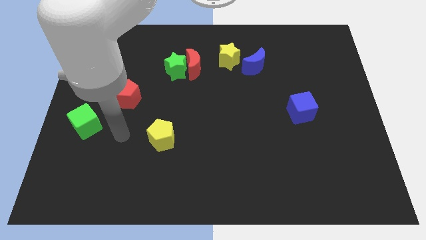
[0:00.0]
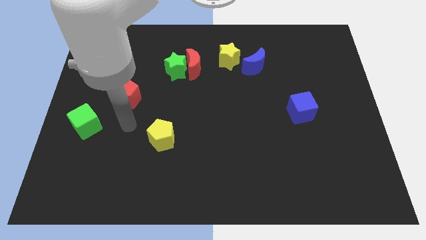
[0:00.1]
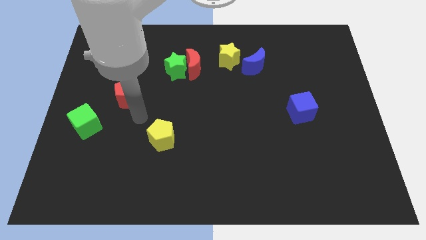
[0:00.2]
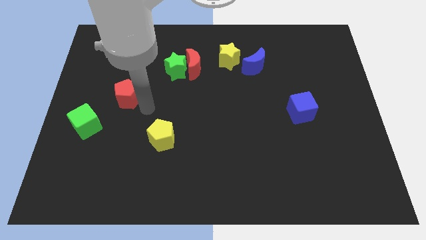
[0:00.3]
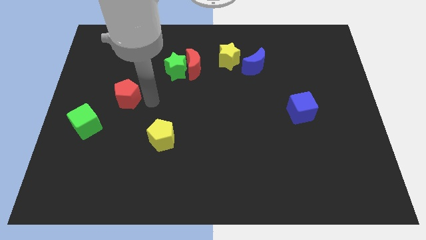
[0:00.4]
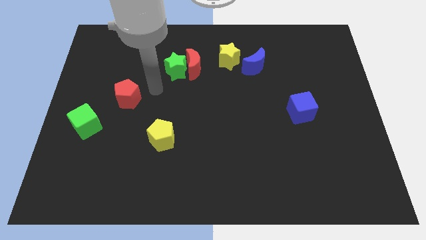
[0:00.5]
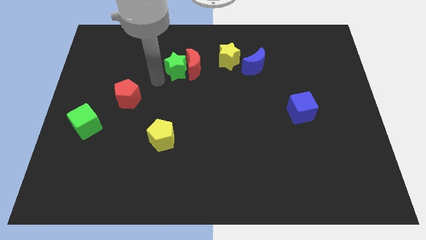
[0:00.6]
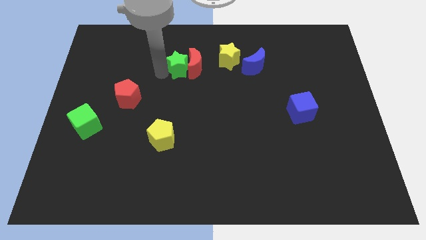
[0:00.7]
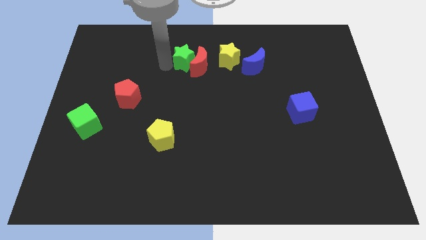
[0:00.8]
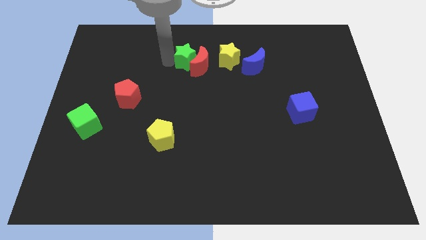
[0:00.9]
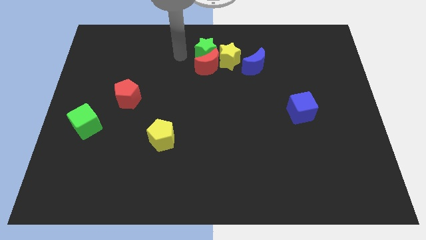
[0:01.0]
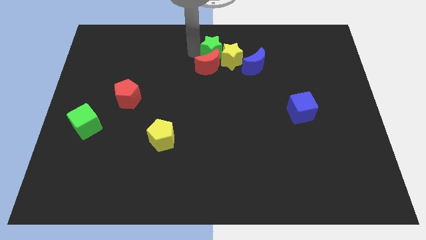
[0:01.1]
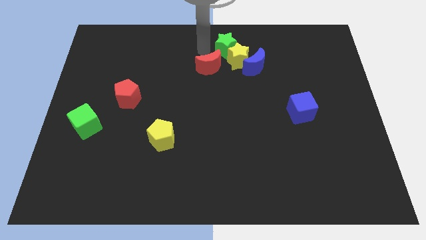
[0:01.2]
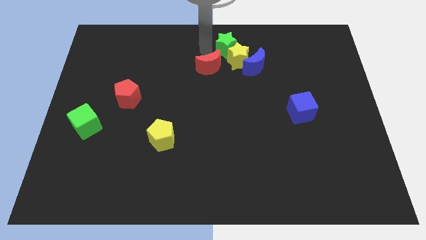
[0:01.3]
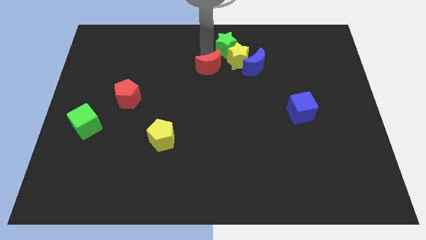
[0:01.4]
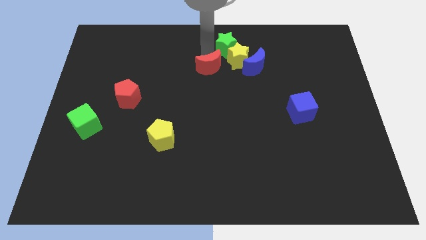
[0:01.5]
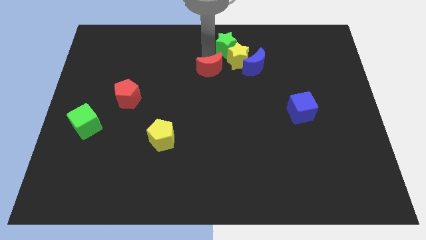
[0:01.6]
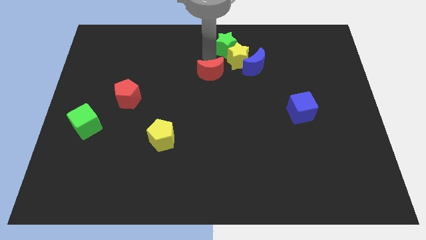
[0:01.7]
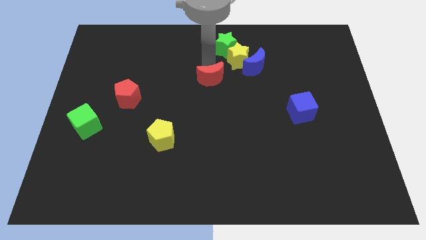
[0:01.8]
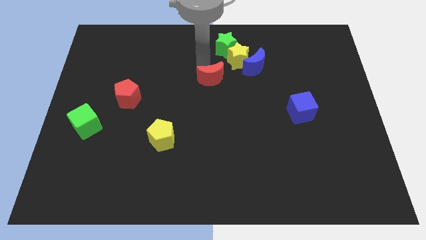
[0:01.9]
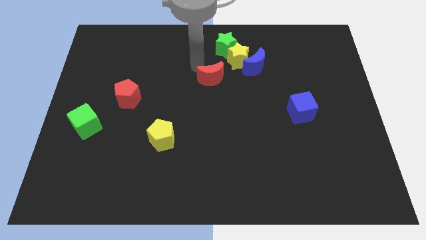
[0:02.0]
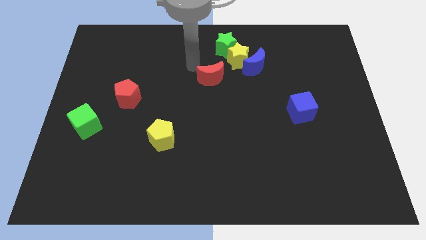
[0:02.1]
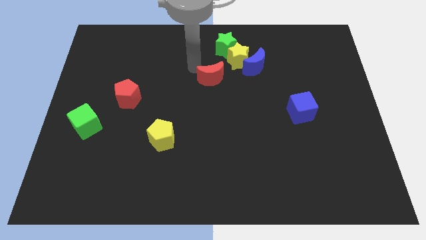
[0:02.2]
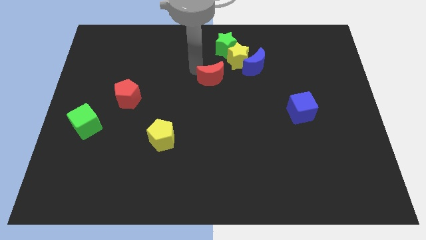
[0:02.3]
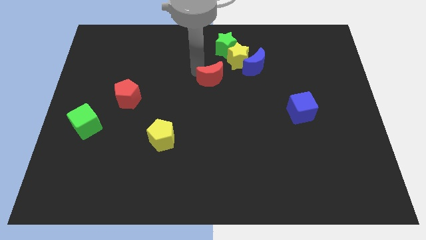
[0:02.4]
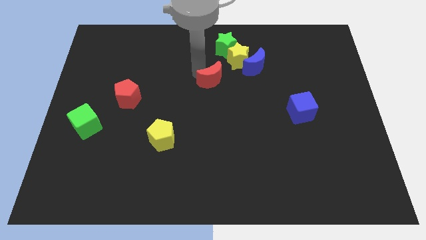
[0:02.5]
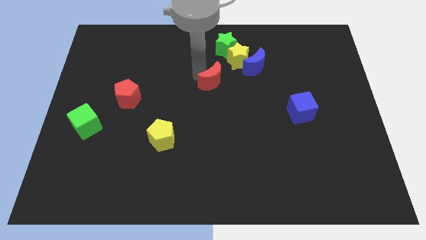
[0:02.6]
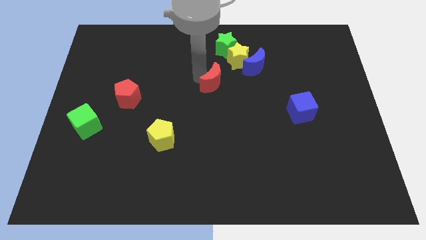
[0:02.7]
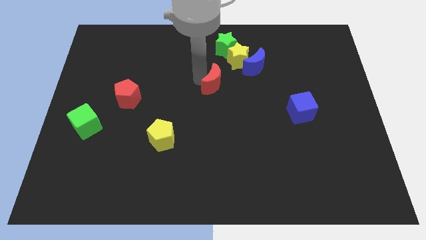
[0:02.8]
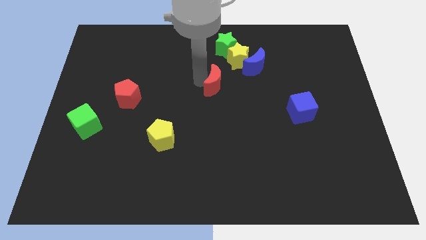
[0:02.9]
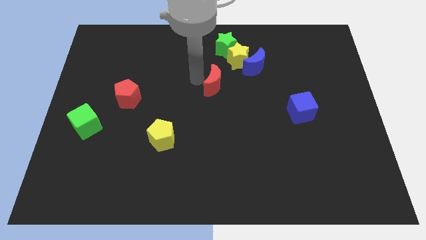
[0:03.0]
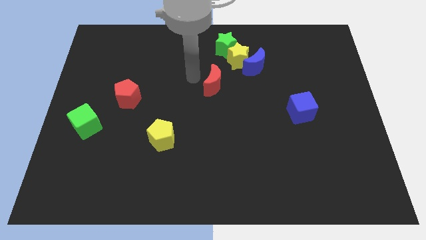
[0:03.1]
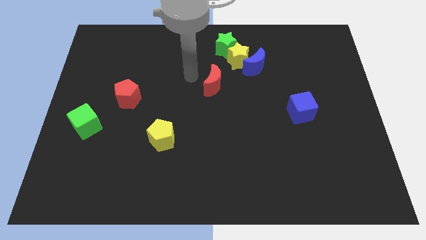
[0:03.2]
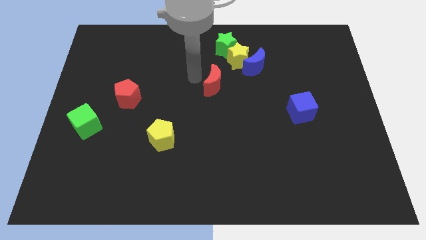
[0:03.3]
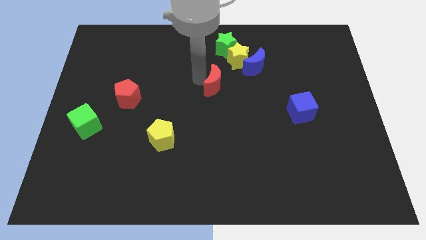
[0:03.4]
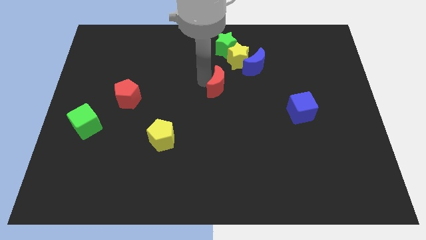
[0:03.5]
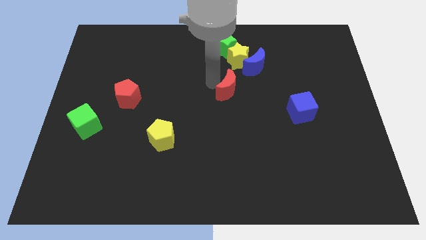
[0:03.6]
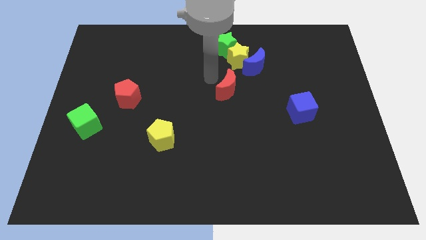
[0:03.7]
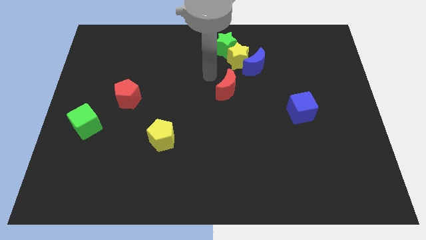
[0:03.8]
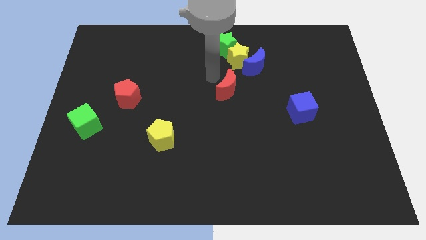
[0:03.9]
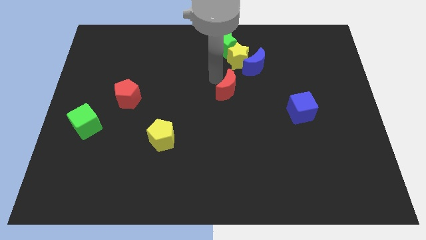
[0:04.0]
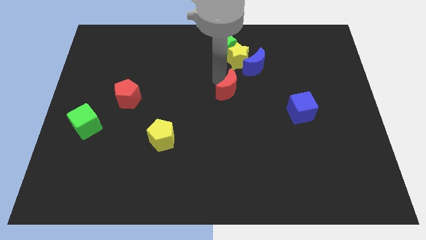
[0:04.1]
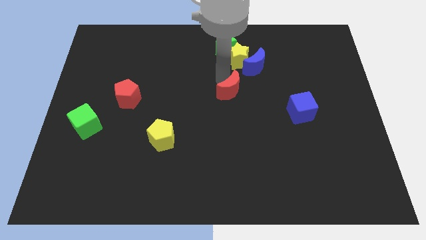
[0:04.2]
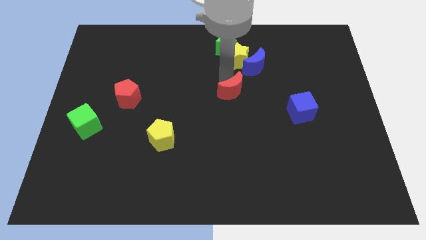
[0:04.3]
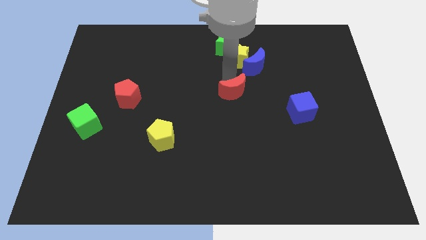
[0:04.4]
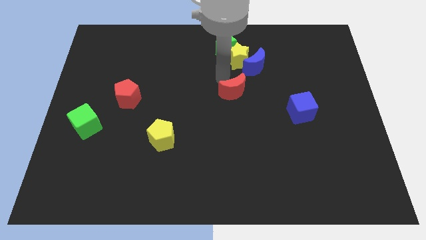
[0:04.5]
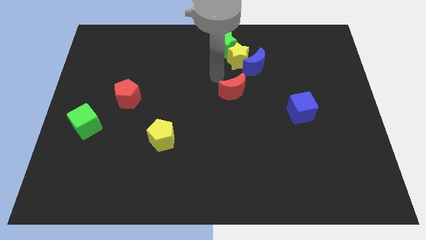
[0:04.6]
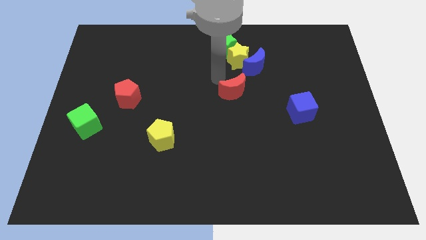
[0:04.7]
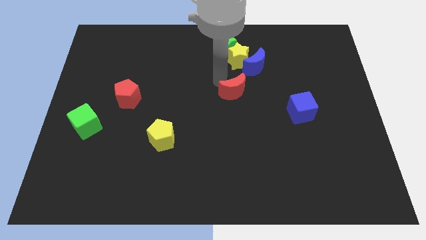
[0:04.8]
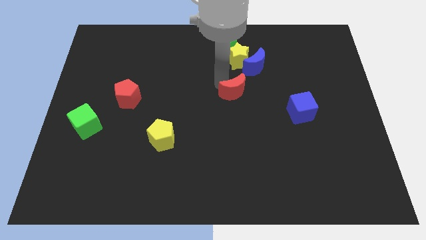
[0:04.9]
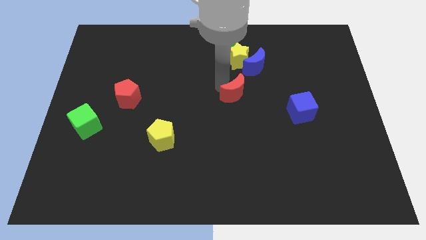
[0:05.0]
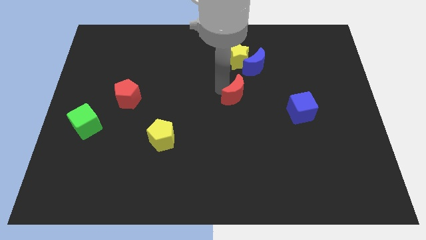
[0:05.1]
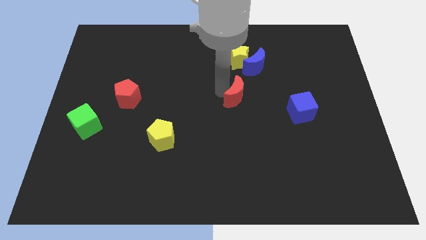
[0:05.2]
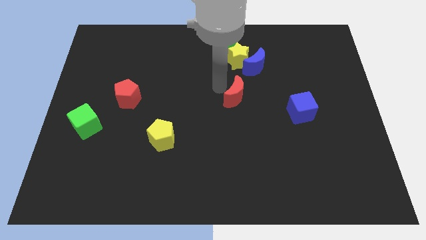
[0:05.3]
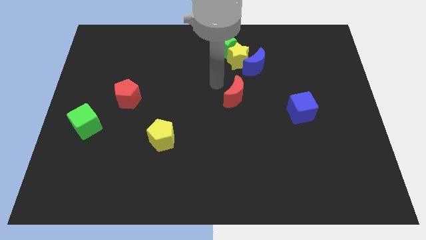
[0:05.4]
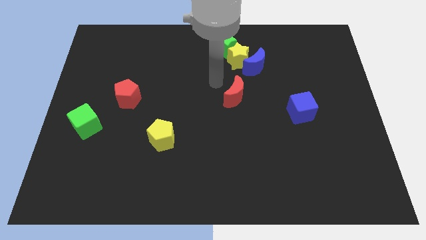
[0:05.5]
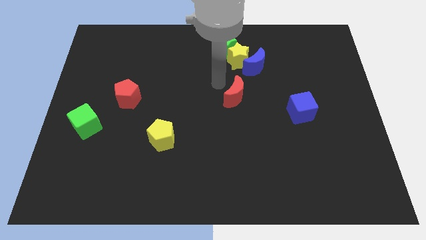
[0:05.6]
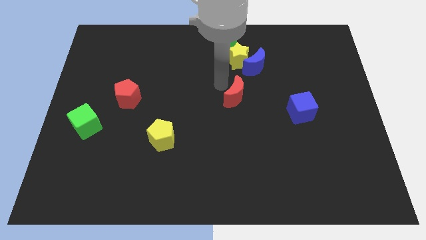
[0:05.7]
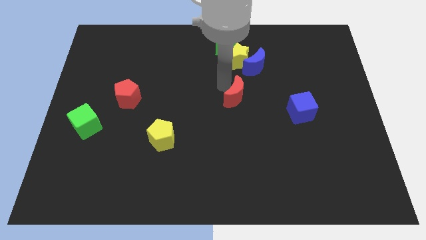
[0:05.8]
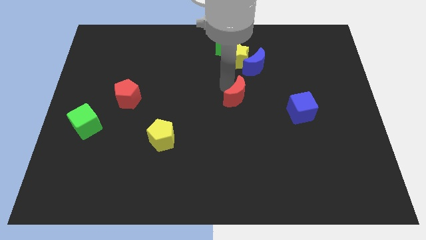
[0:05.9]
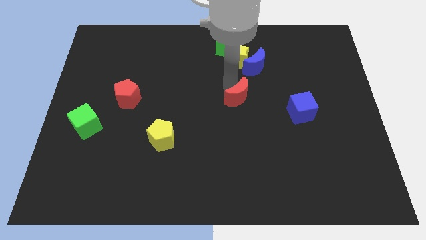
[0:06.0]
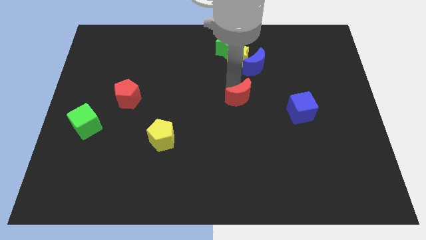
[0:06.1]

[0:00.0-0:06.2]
put the red moon left of the blue cube

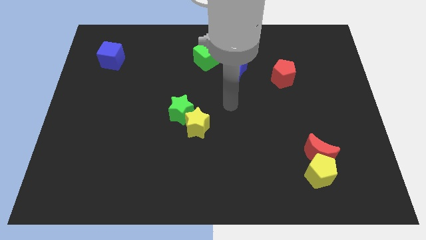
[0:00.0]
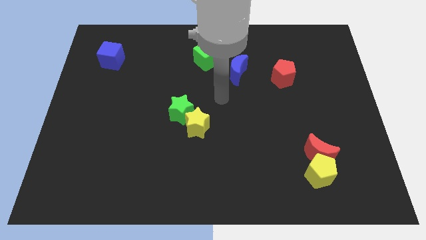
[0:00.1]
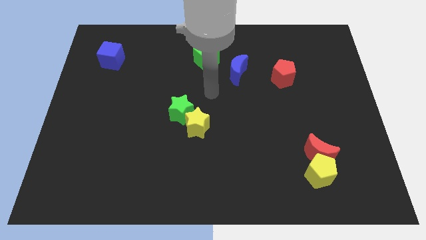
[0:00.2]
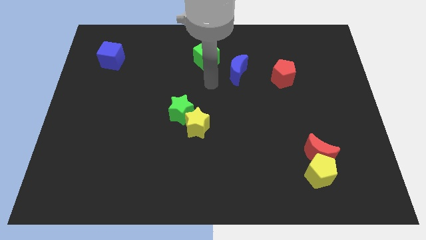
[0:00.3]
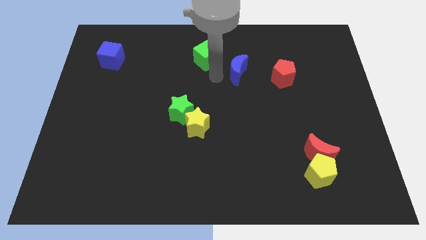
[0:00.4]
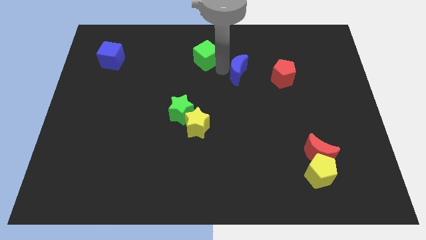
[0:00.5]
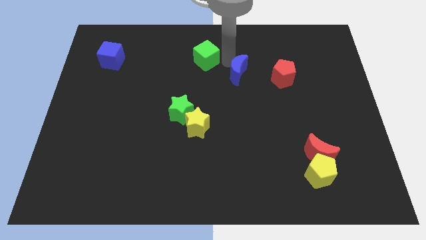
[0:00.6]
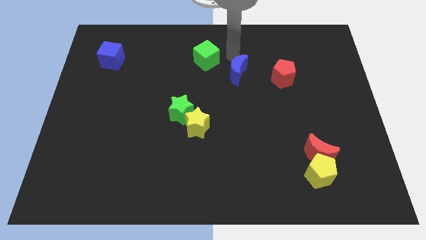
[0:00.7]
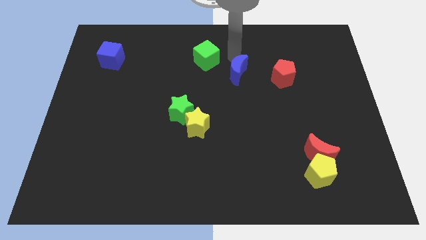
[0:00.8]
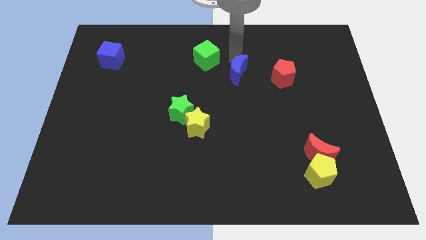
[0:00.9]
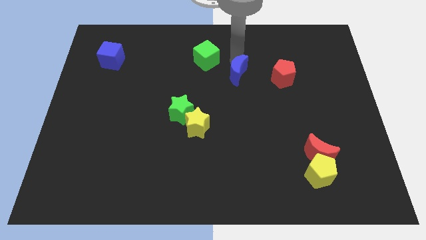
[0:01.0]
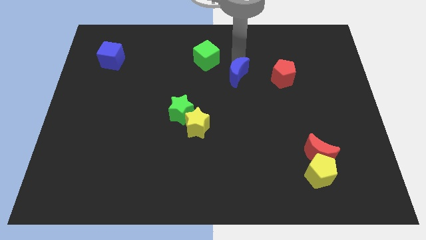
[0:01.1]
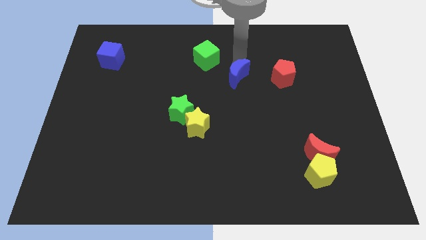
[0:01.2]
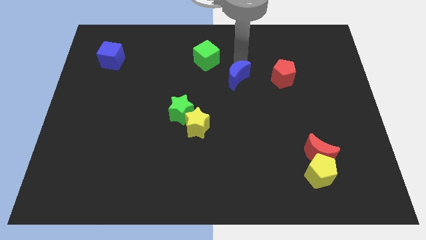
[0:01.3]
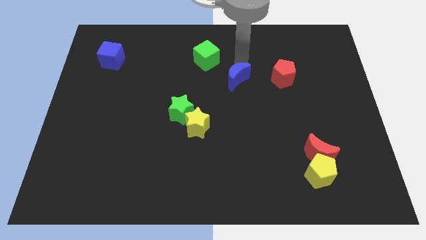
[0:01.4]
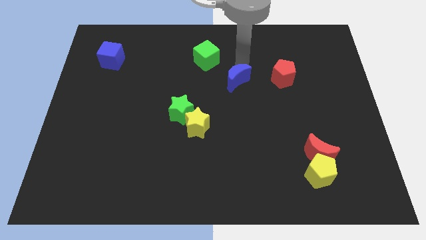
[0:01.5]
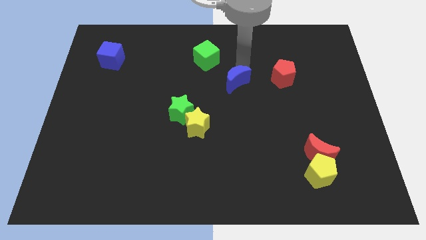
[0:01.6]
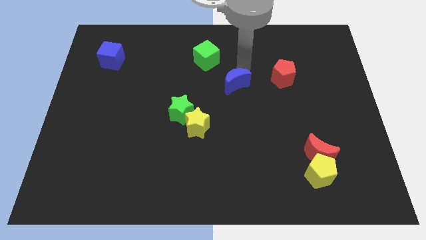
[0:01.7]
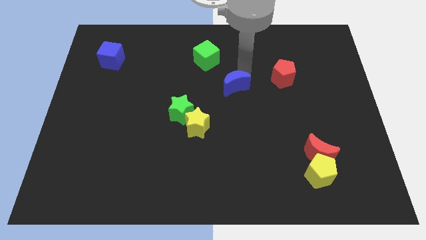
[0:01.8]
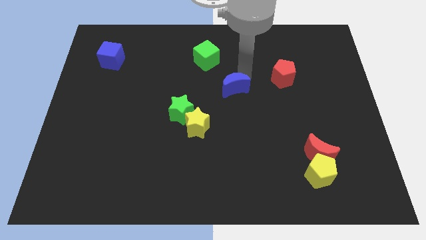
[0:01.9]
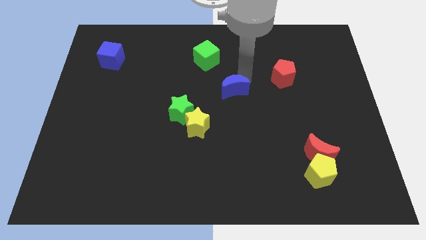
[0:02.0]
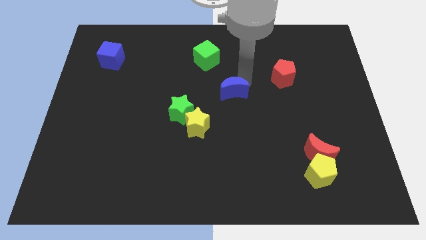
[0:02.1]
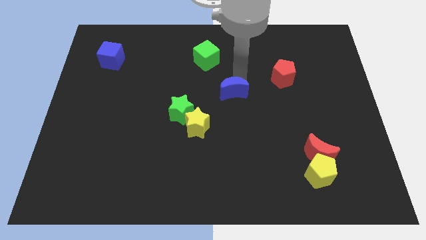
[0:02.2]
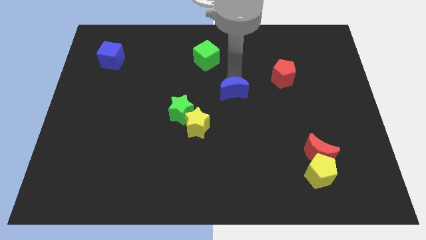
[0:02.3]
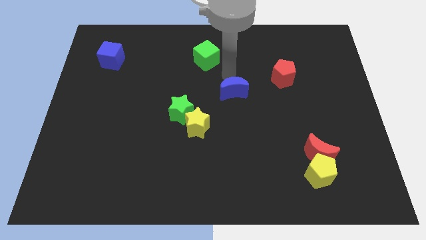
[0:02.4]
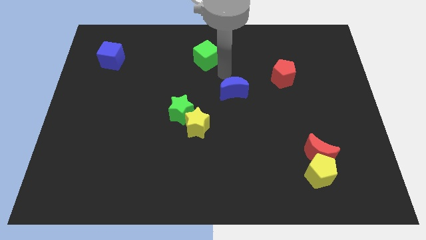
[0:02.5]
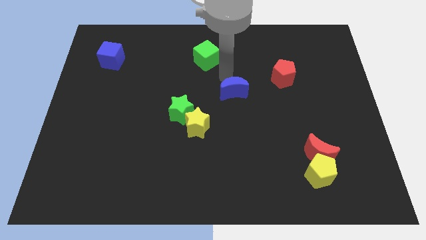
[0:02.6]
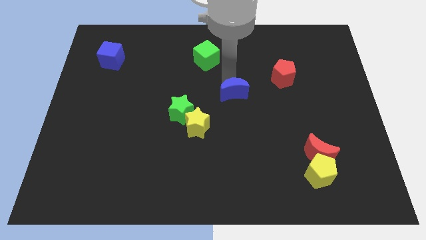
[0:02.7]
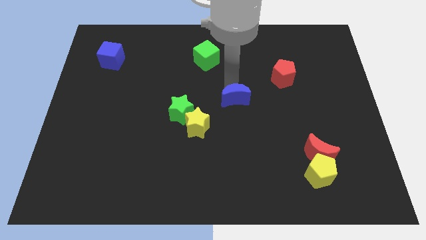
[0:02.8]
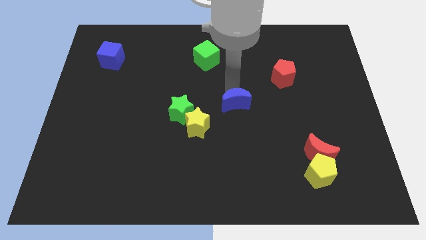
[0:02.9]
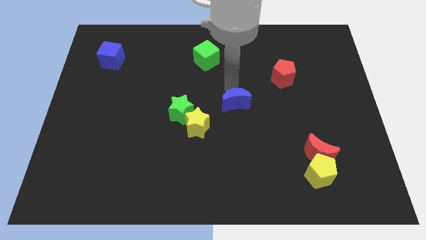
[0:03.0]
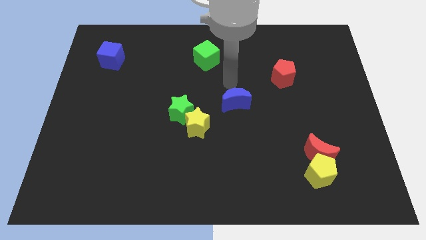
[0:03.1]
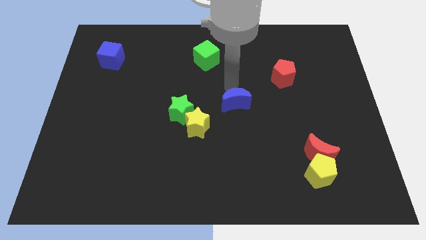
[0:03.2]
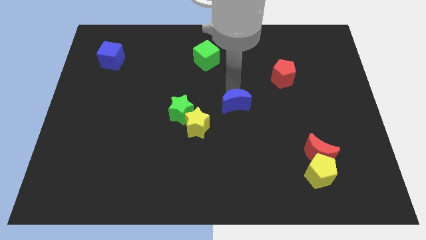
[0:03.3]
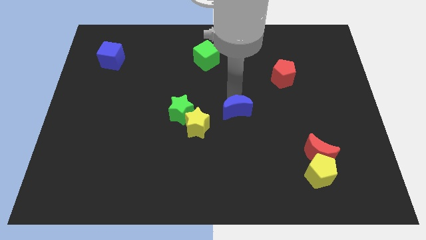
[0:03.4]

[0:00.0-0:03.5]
push the blue moon to the right side of the yellow star
